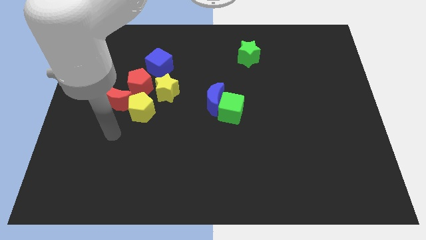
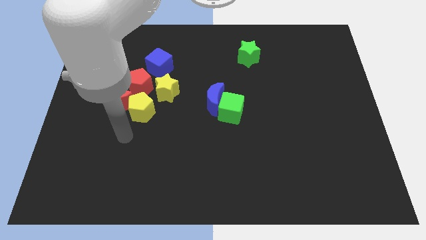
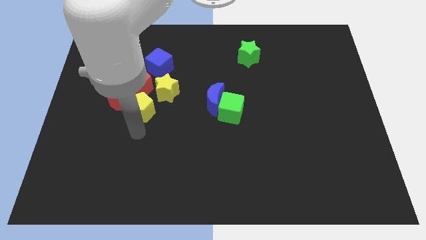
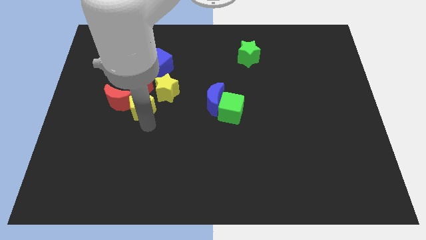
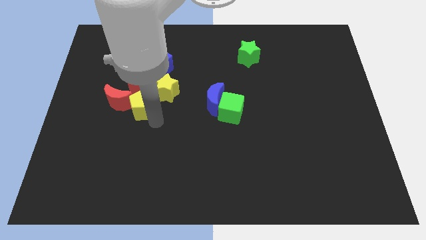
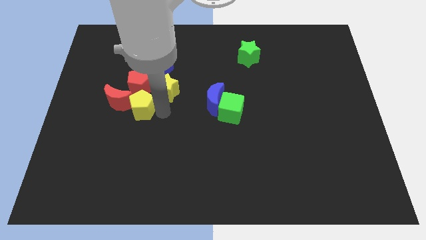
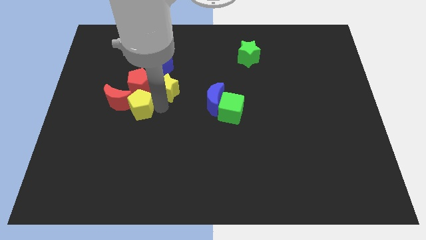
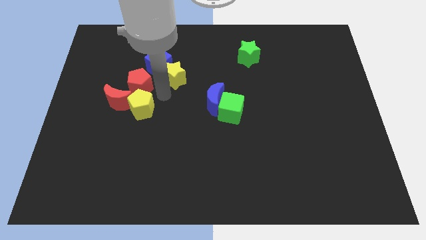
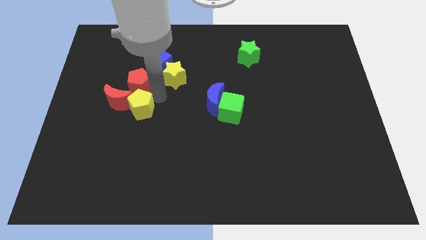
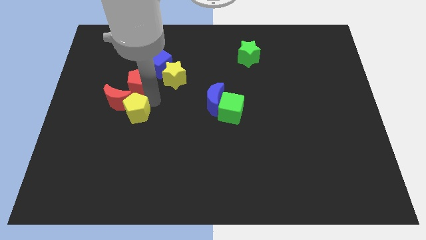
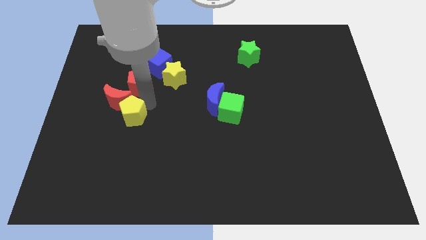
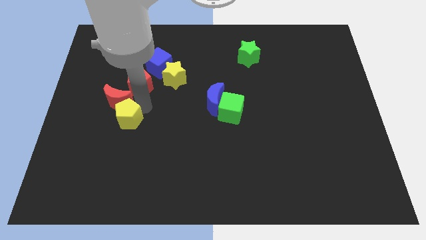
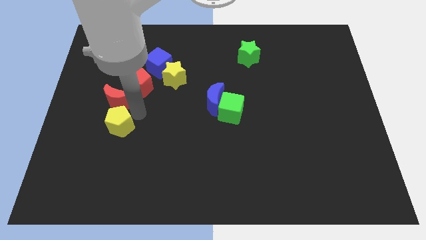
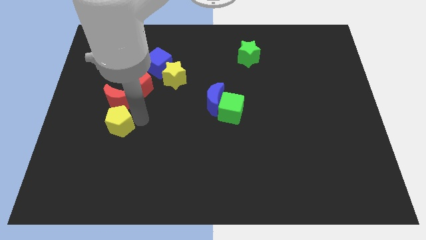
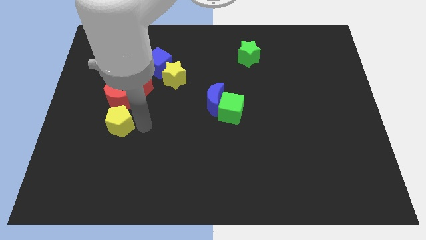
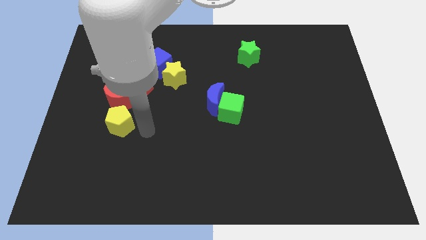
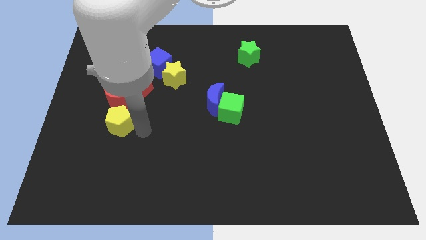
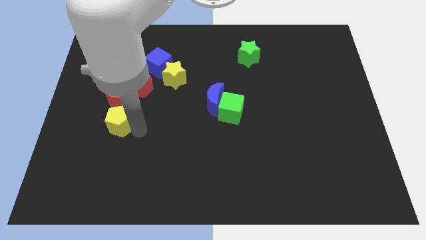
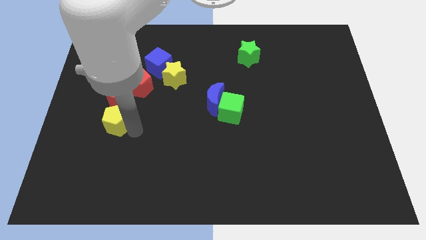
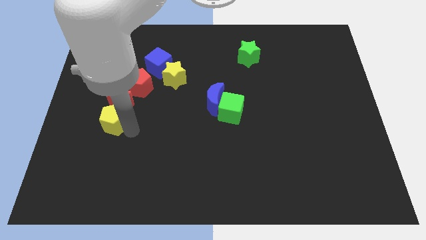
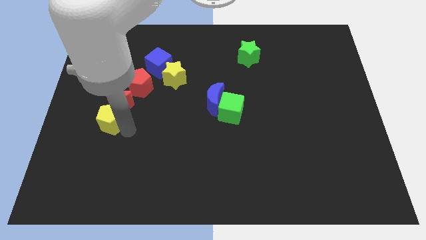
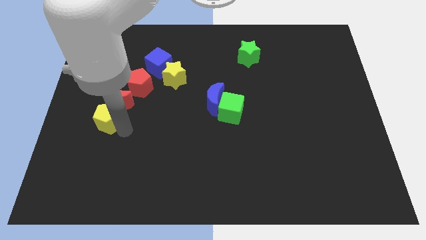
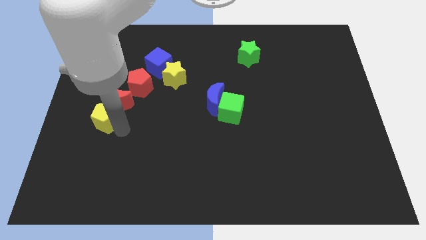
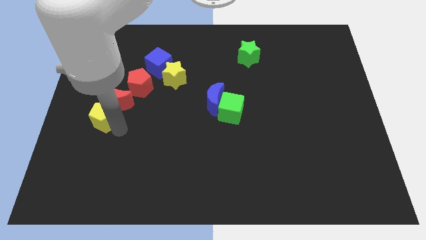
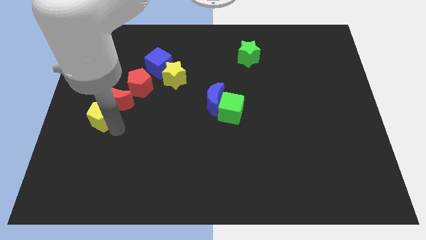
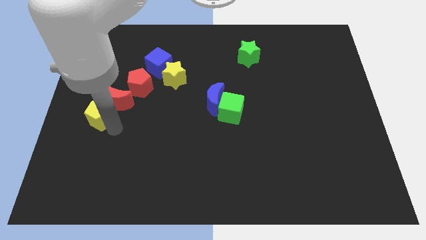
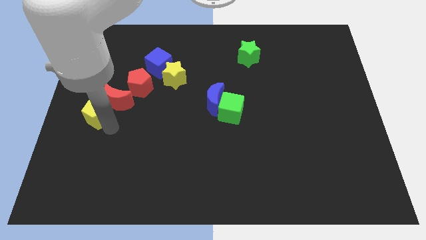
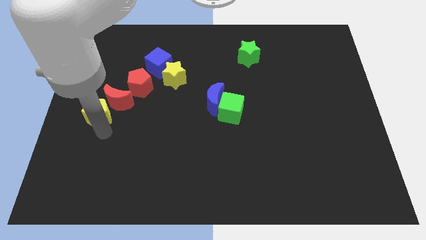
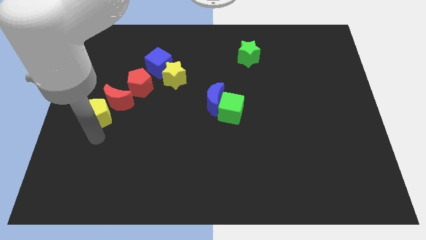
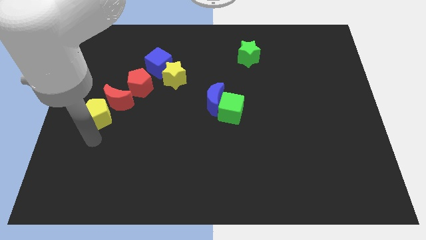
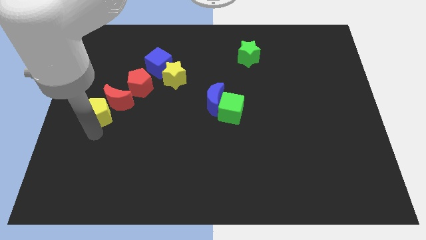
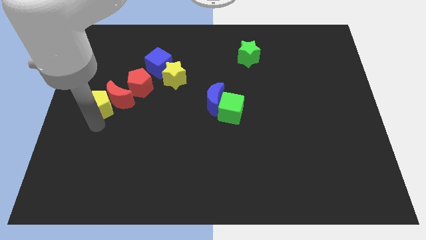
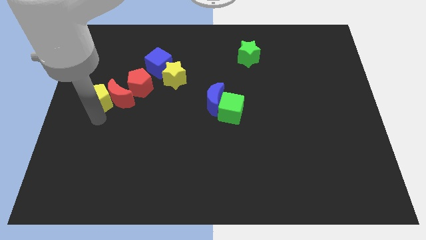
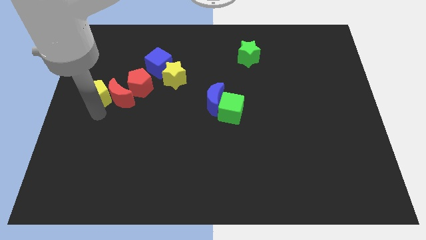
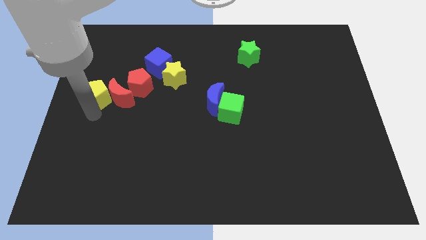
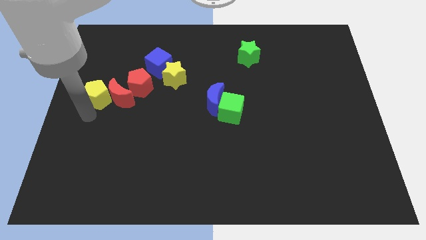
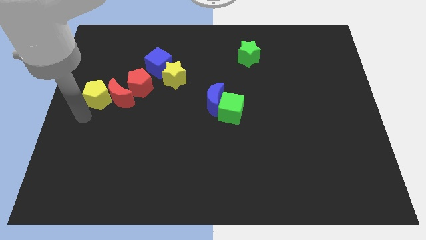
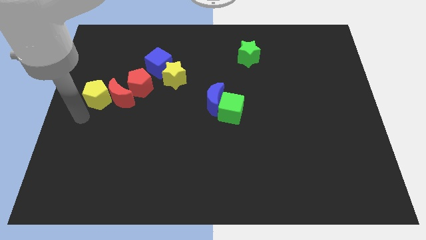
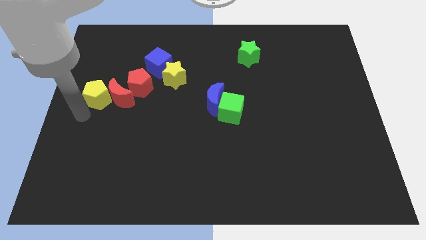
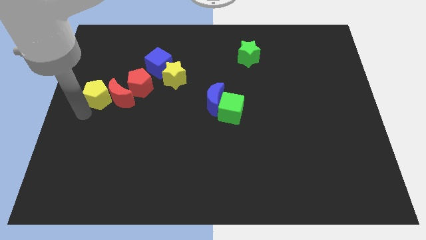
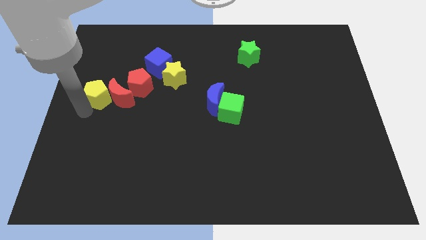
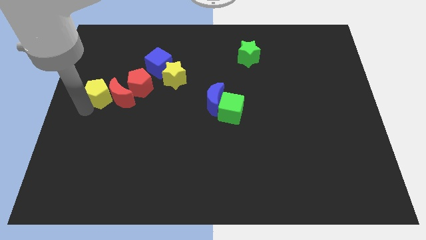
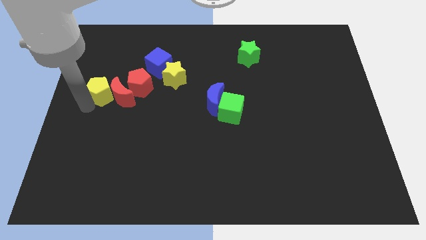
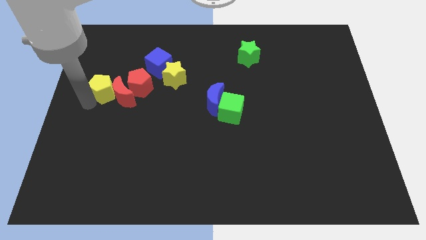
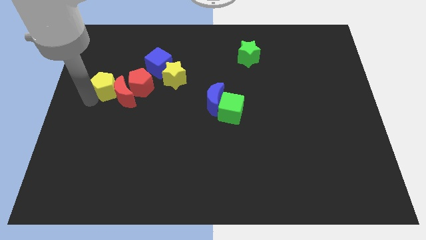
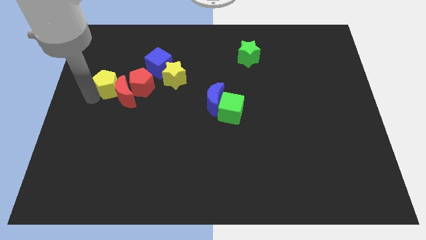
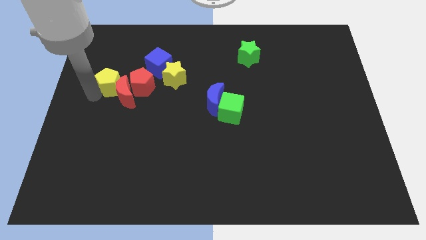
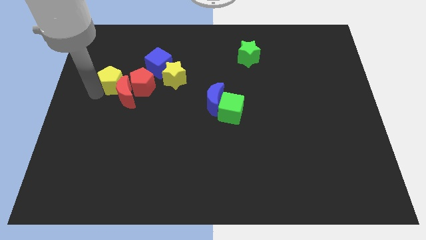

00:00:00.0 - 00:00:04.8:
slide the yellow pentagon to the top left side of the red pentagon

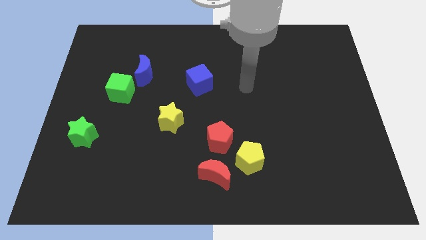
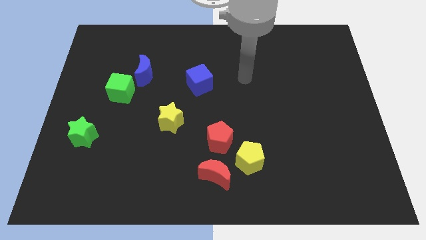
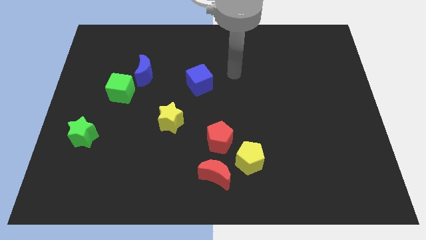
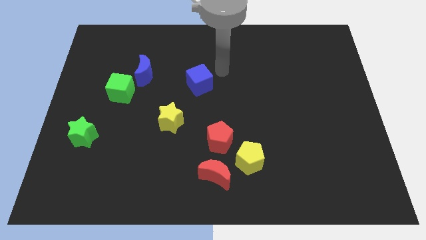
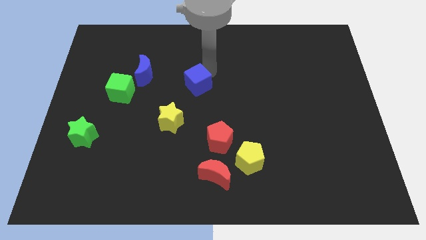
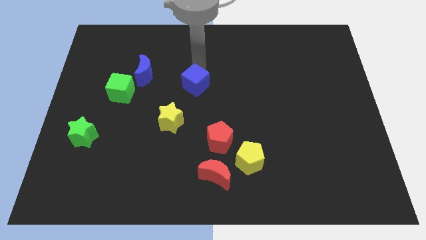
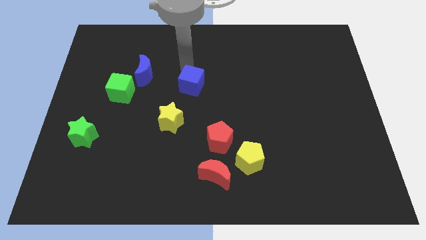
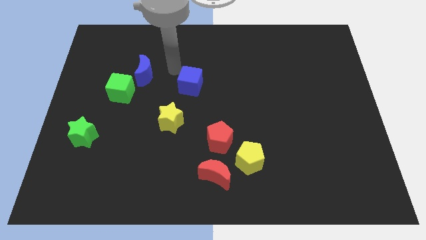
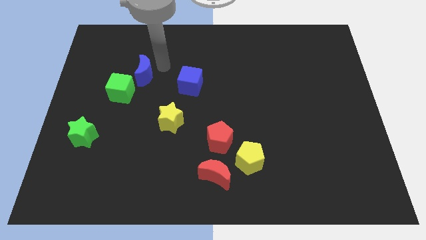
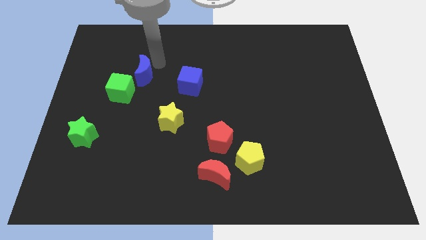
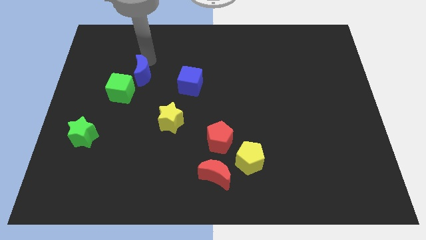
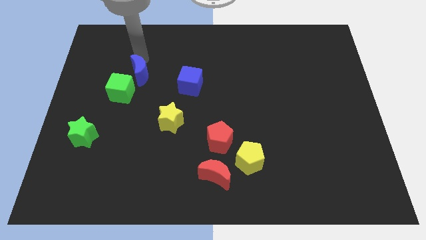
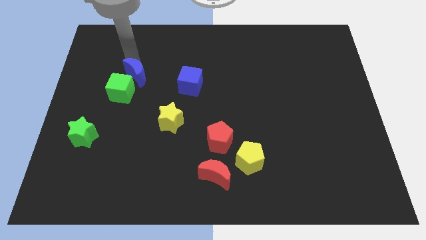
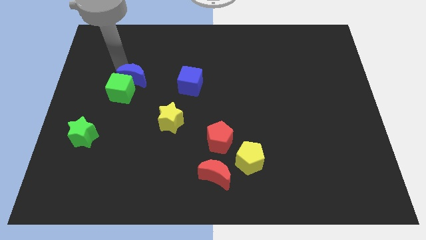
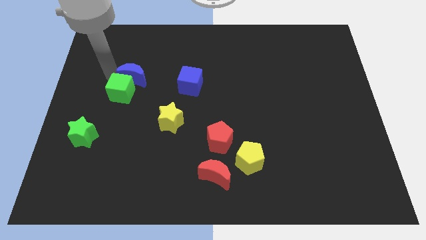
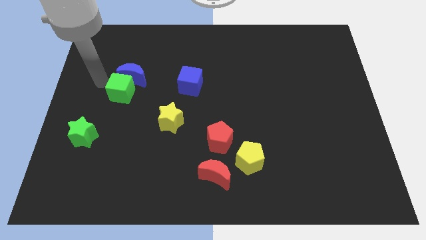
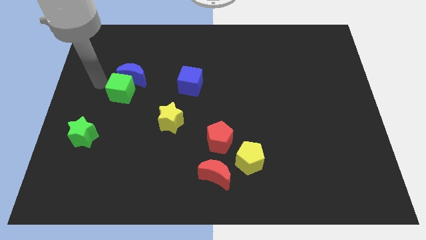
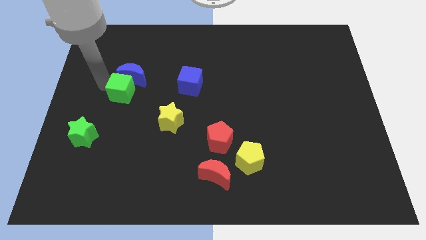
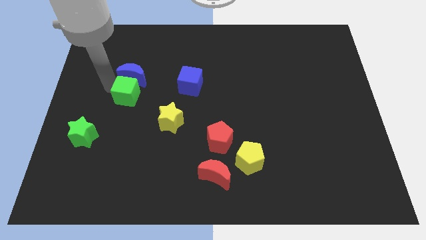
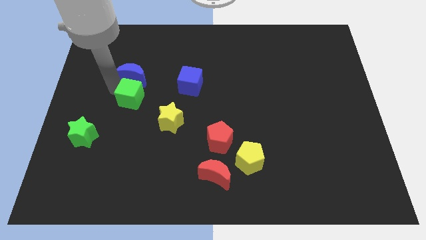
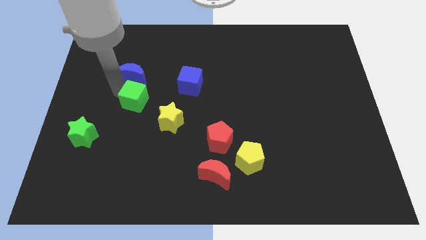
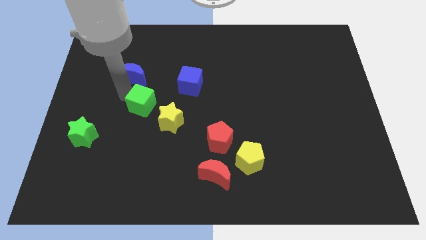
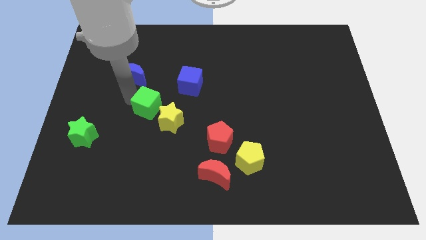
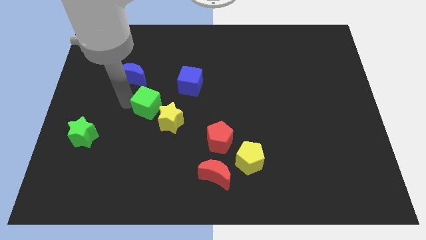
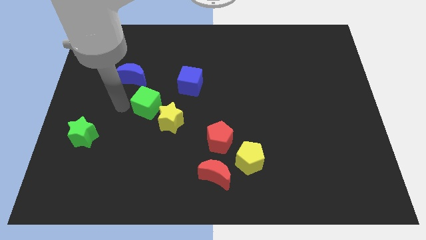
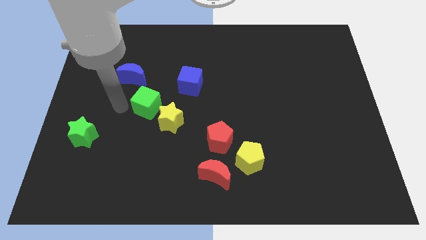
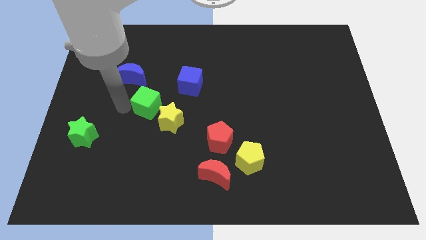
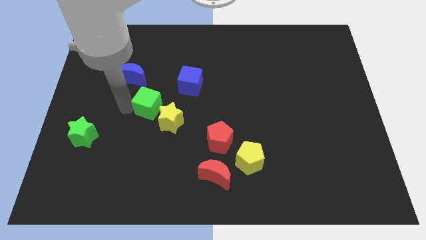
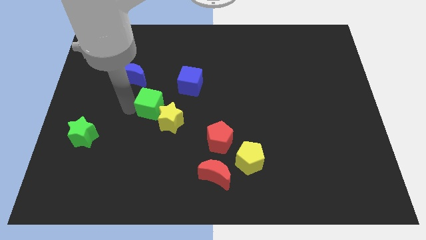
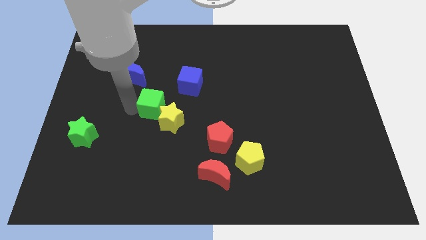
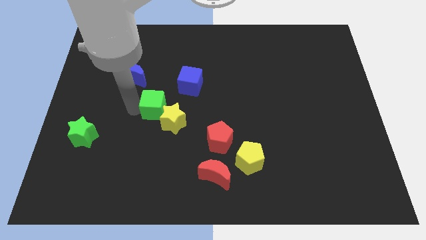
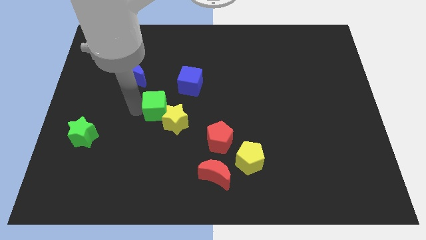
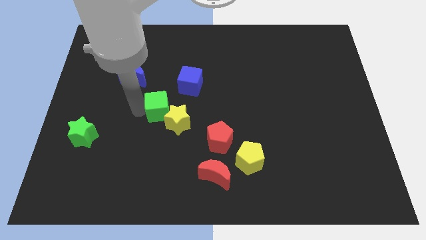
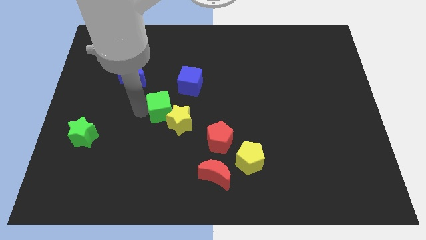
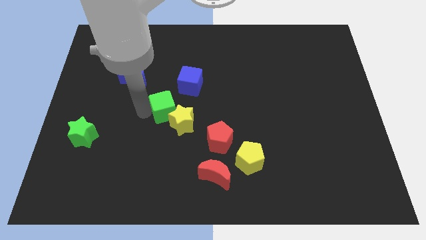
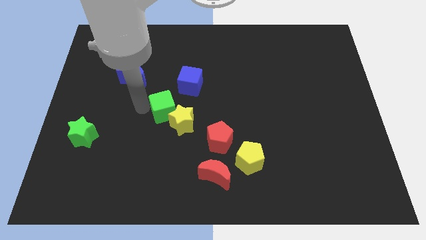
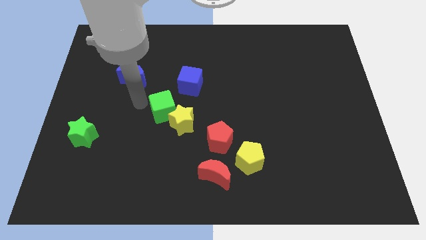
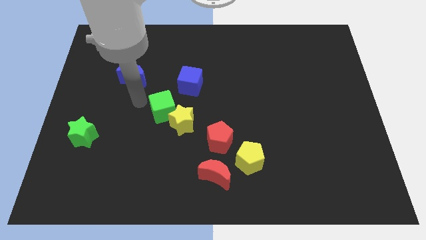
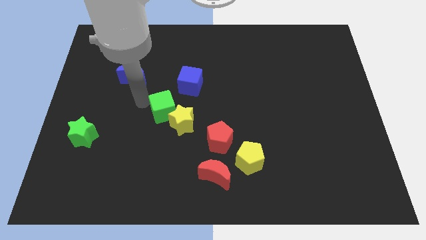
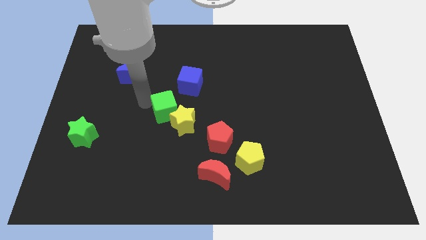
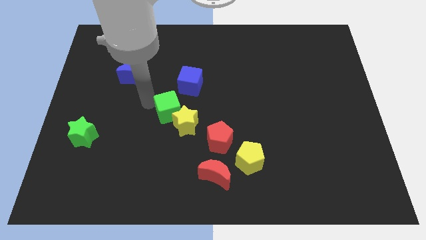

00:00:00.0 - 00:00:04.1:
slide the green cube below the blue cube
